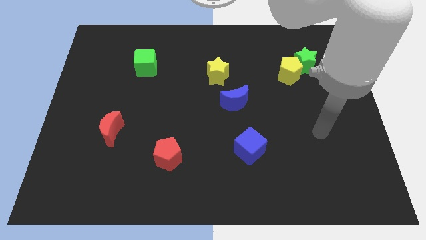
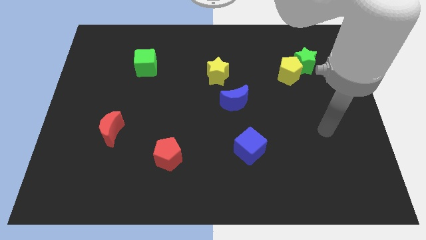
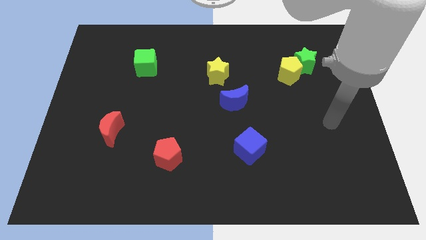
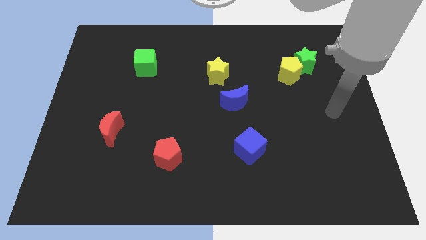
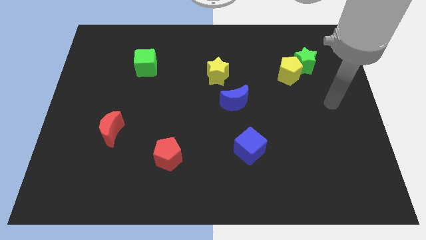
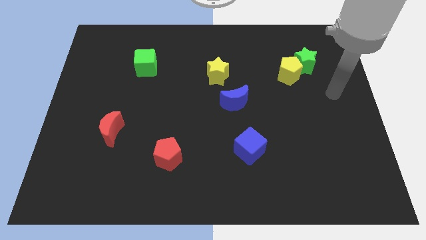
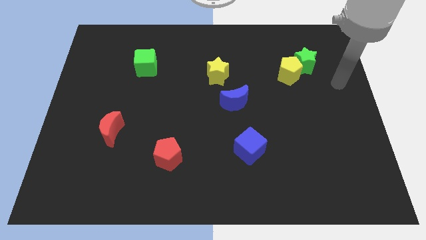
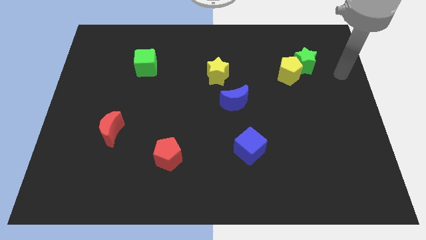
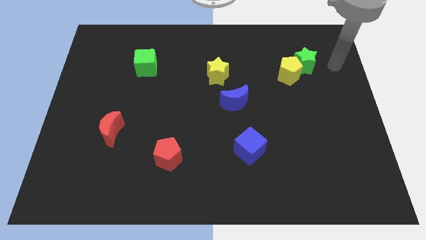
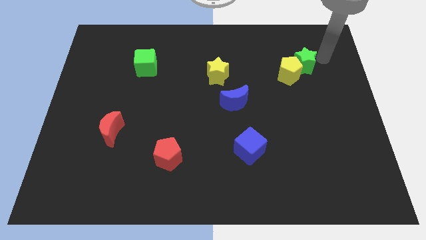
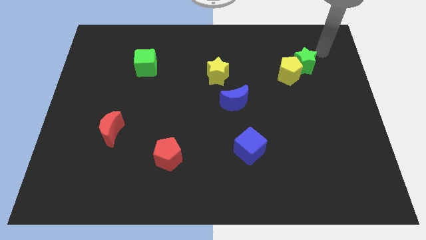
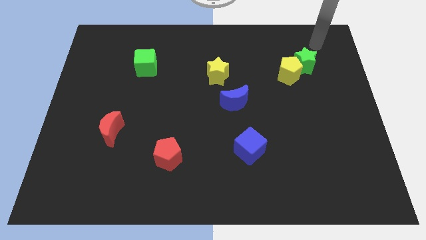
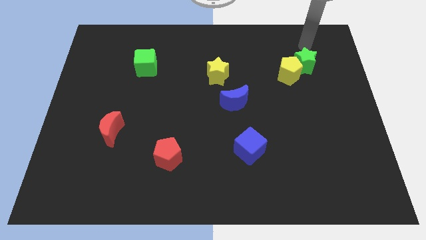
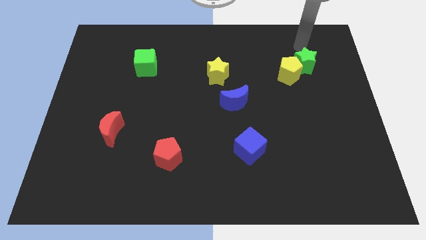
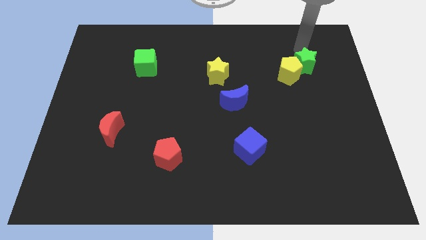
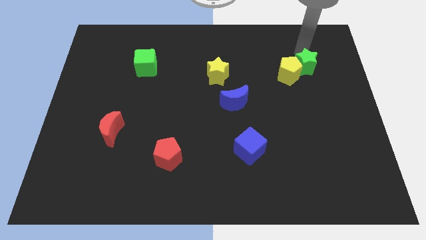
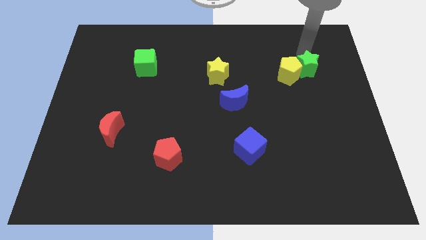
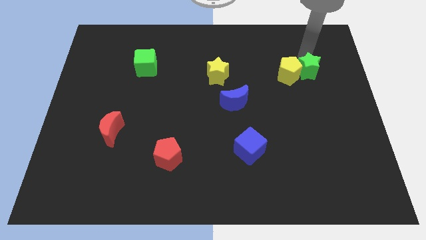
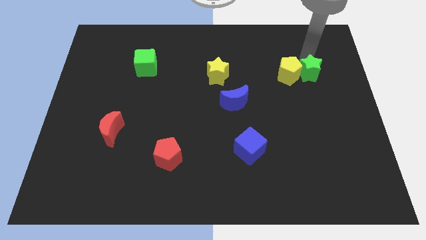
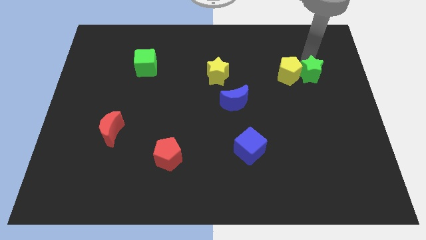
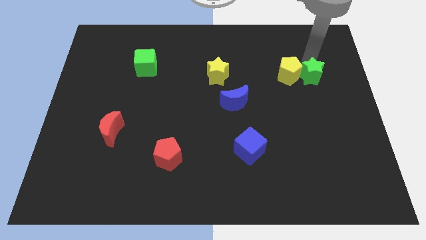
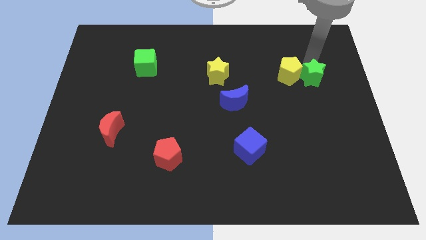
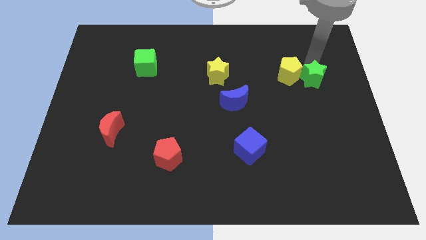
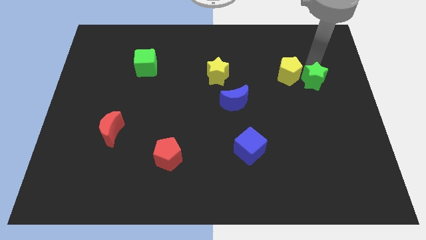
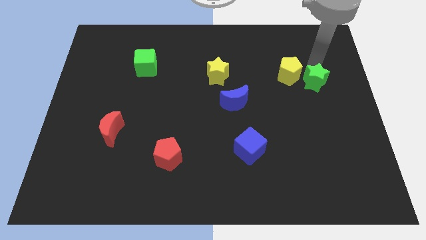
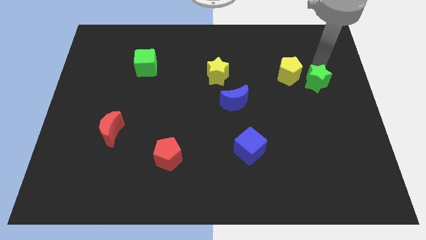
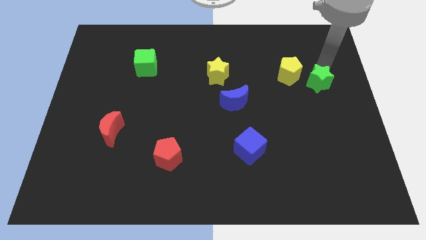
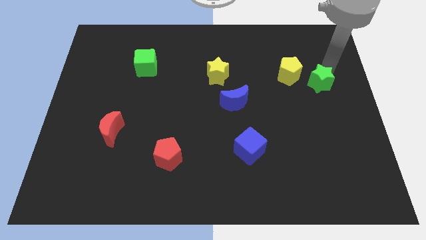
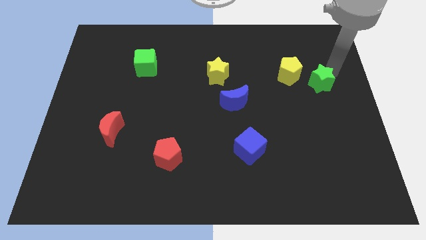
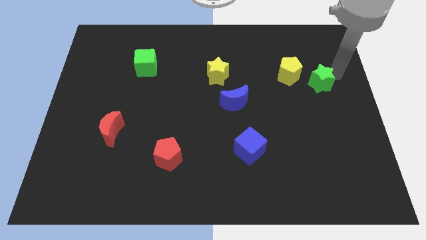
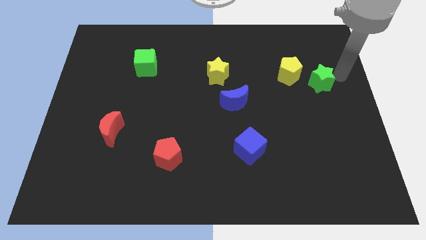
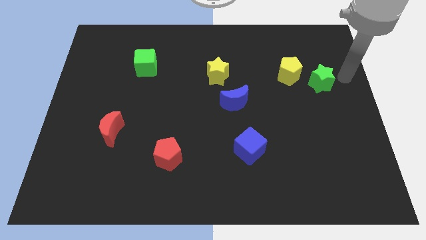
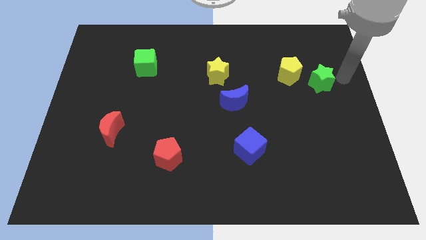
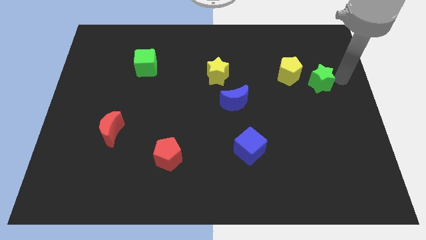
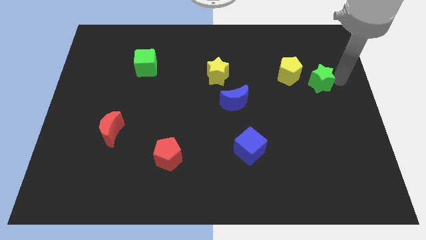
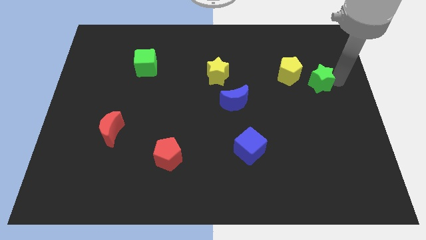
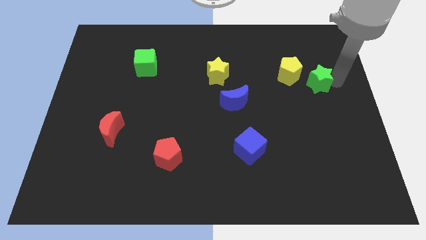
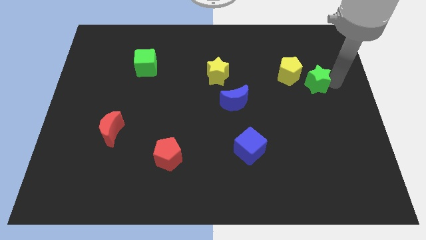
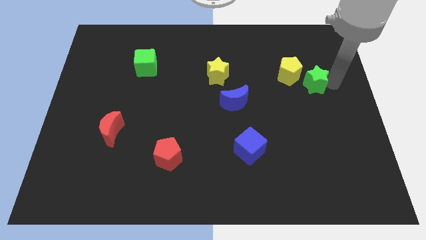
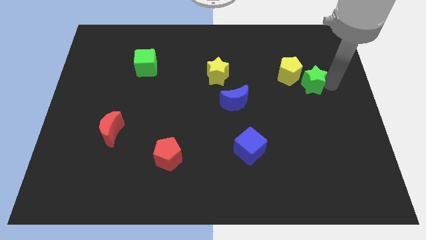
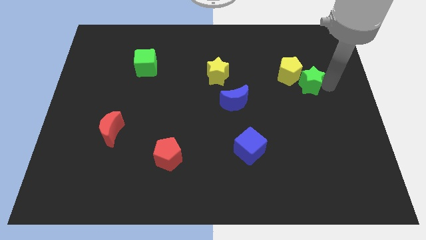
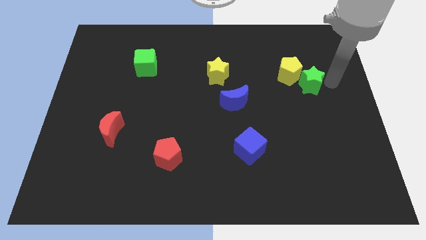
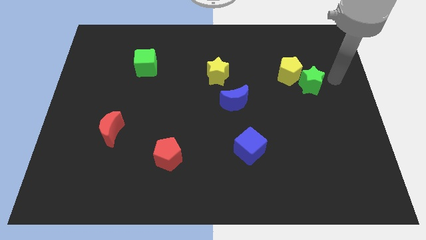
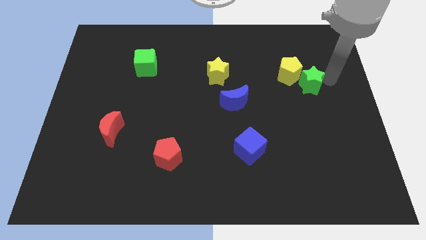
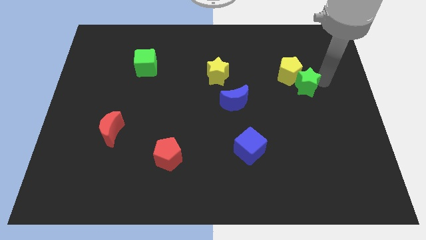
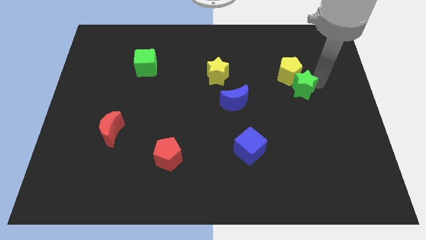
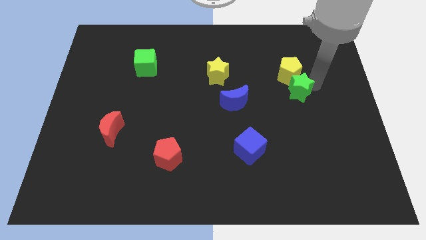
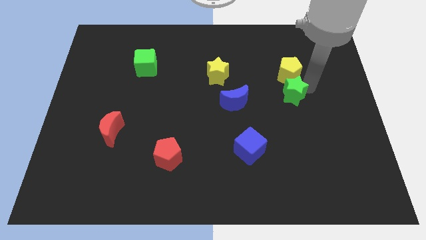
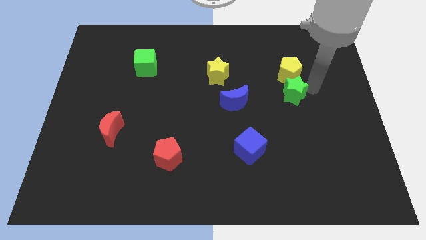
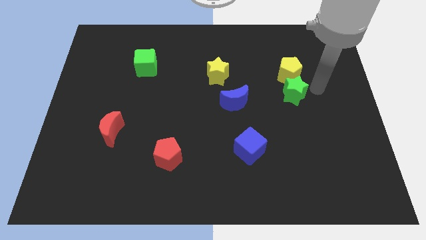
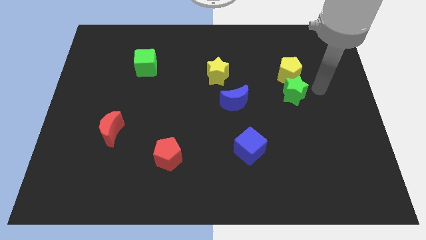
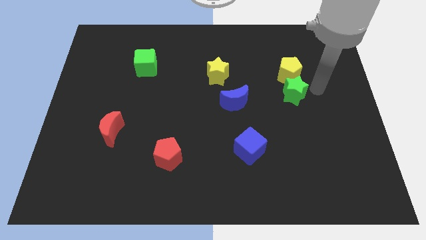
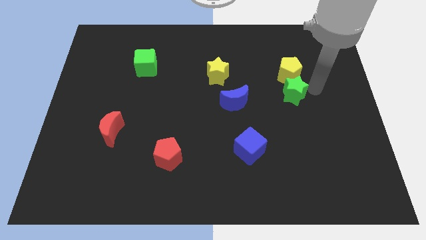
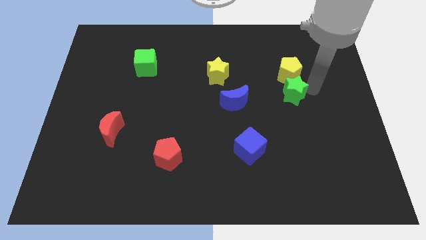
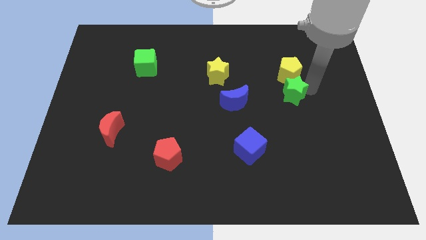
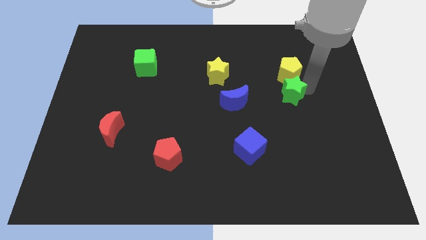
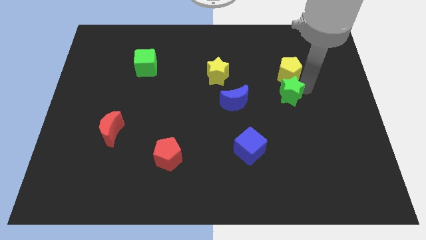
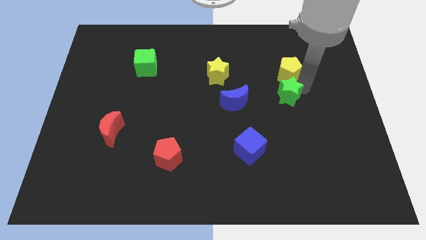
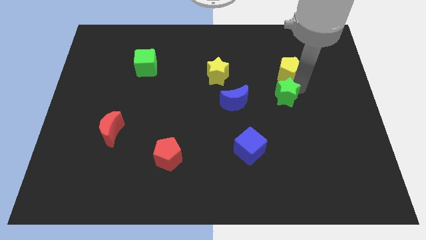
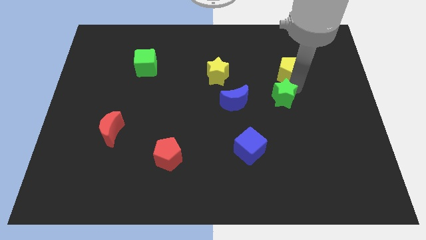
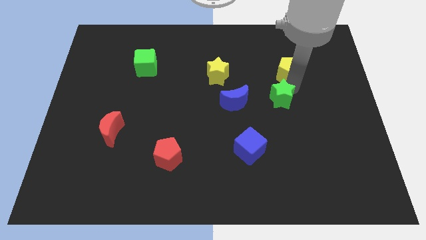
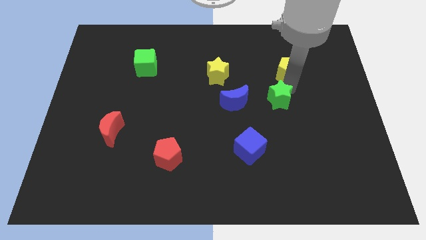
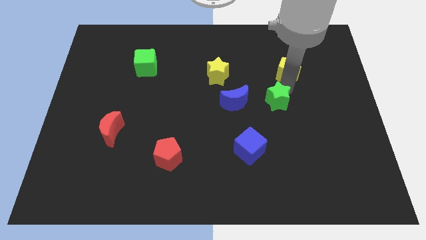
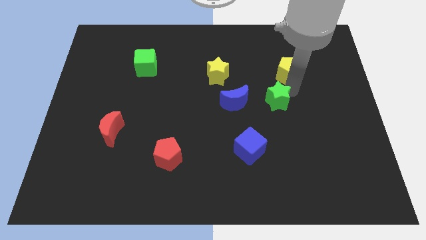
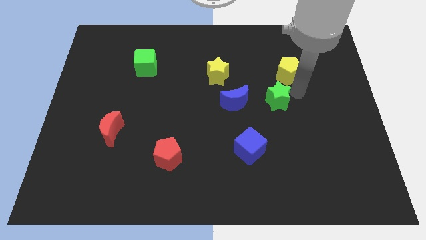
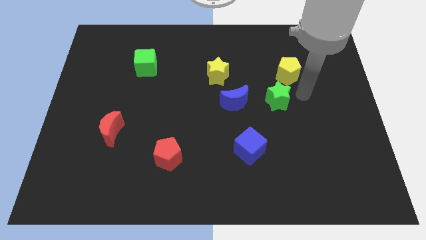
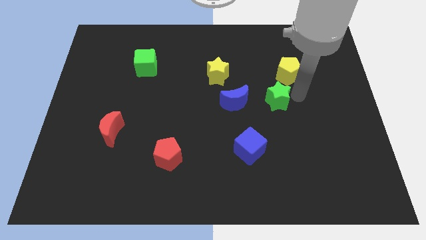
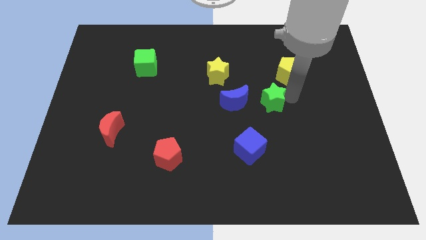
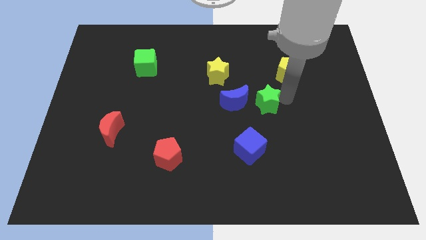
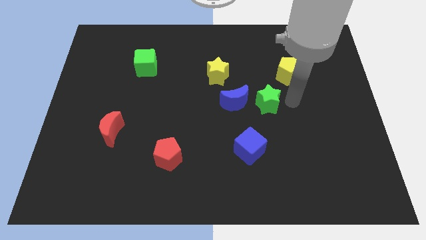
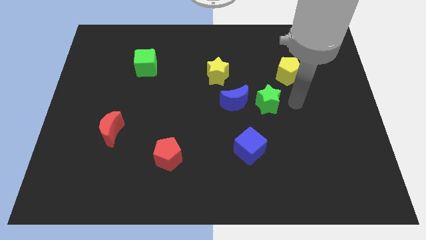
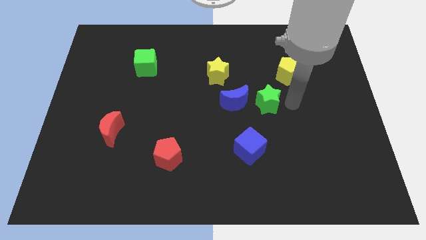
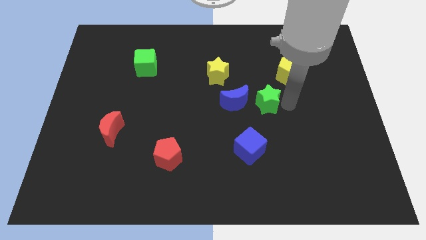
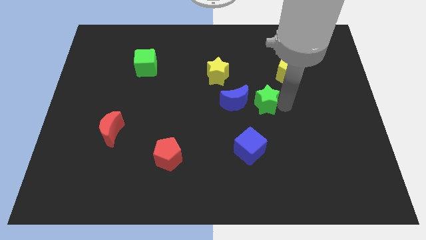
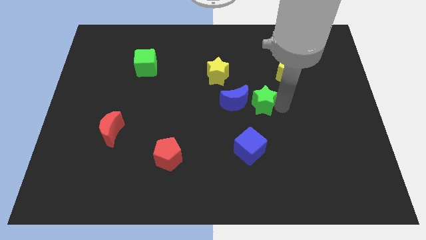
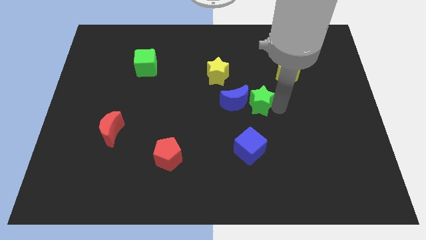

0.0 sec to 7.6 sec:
put the green star next to the blue moon
